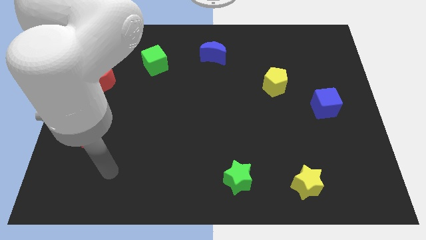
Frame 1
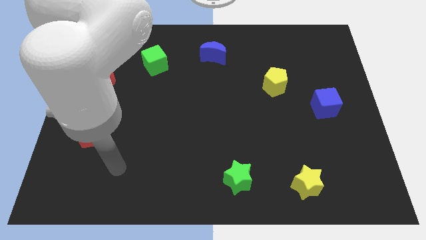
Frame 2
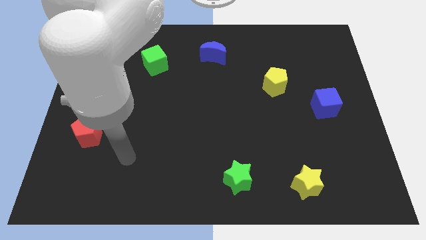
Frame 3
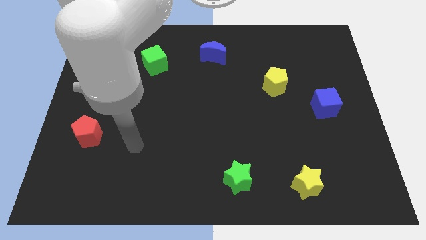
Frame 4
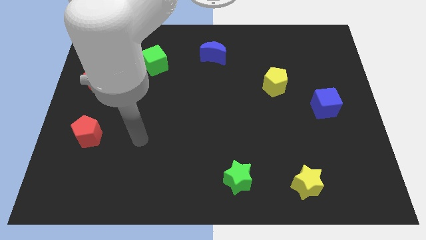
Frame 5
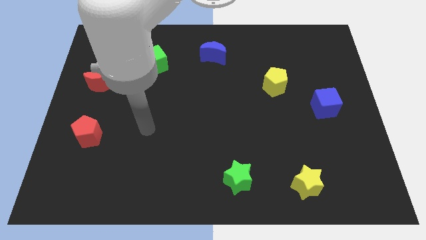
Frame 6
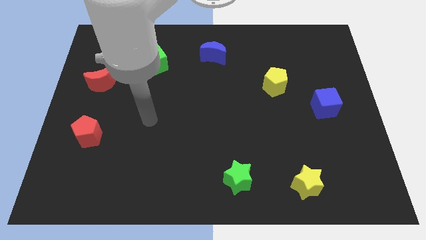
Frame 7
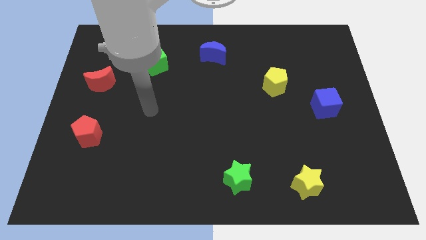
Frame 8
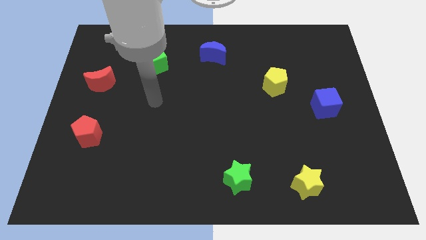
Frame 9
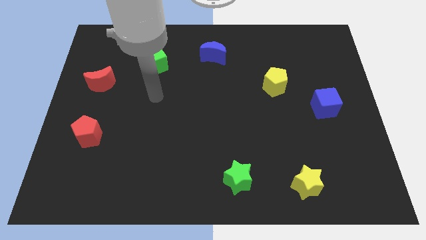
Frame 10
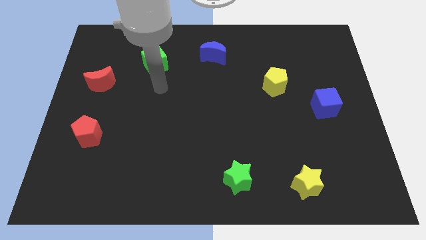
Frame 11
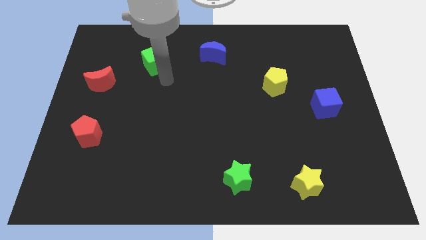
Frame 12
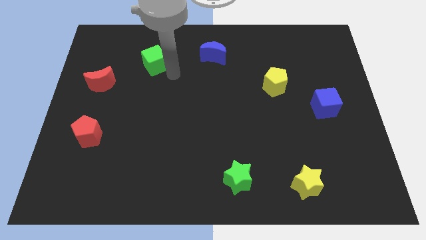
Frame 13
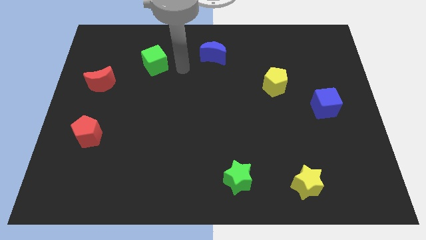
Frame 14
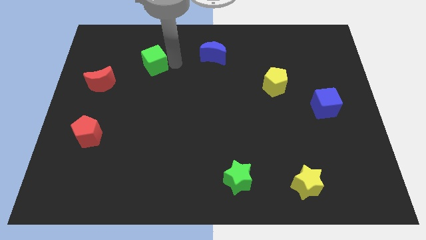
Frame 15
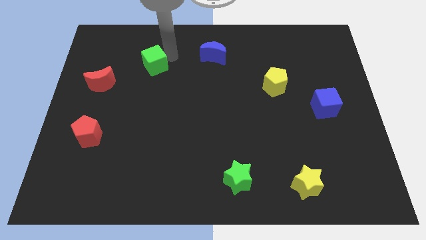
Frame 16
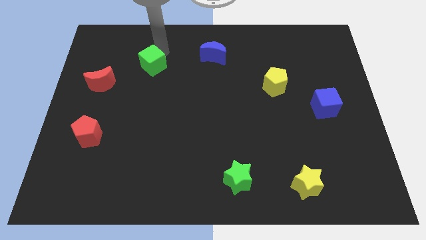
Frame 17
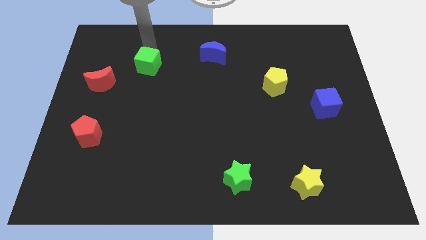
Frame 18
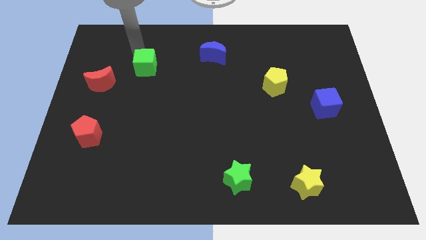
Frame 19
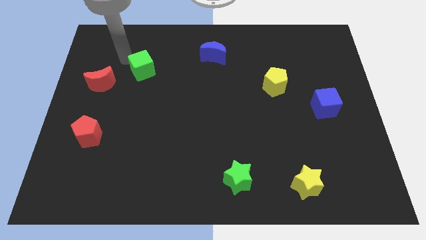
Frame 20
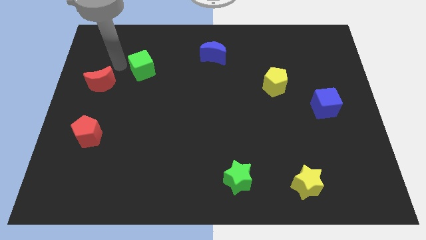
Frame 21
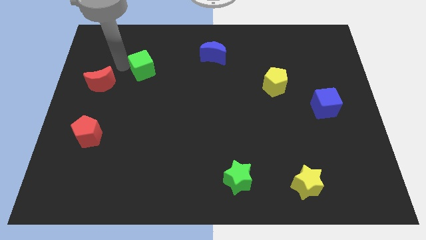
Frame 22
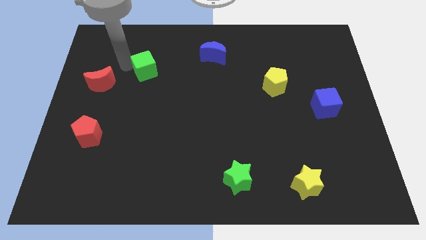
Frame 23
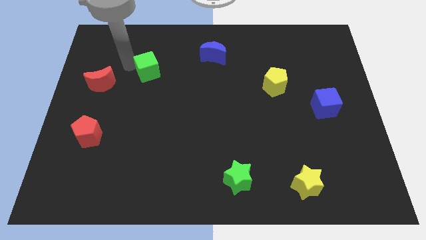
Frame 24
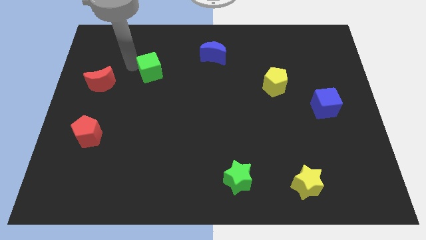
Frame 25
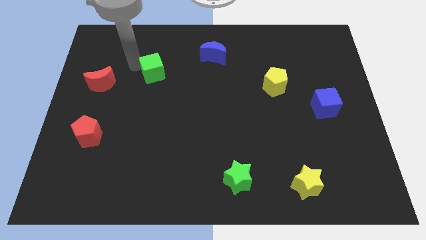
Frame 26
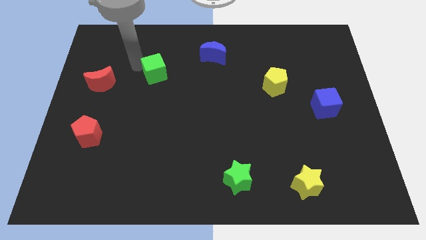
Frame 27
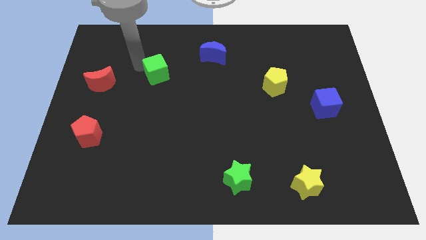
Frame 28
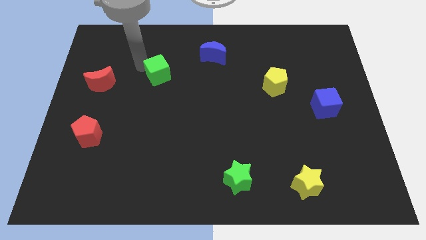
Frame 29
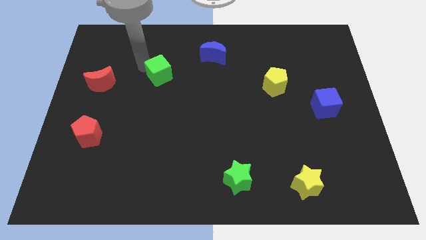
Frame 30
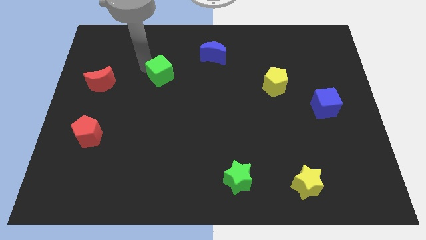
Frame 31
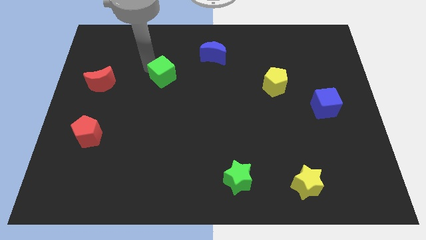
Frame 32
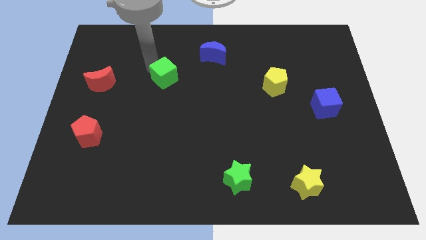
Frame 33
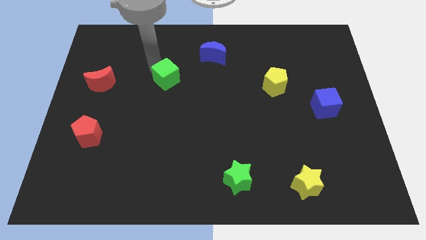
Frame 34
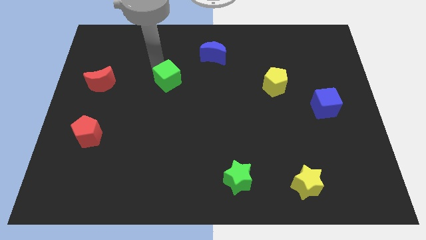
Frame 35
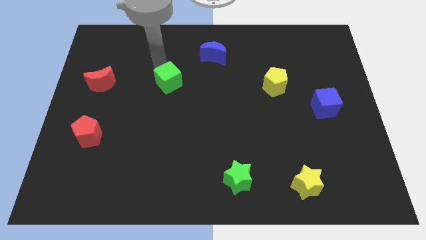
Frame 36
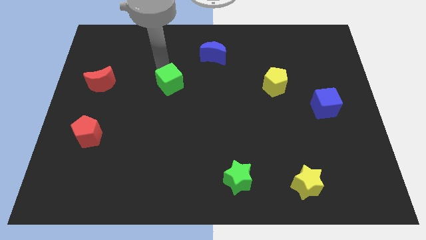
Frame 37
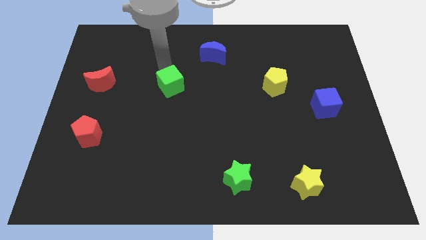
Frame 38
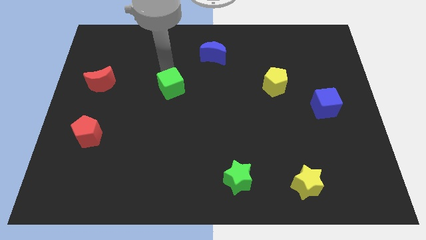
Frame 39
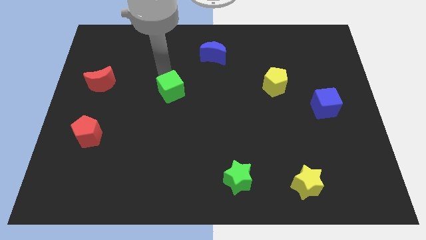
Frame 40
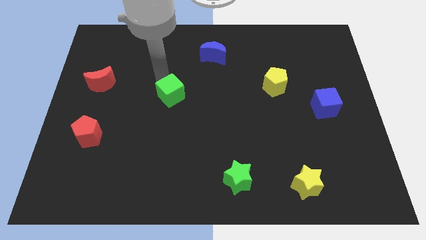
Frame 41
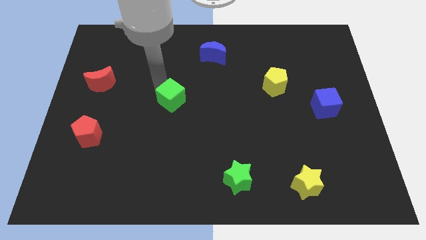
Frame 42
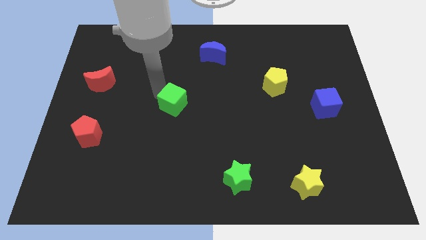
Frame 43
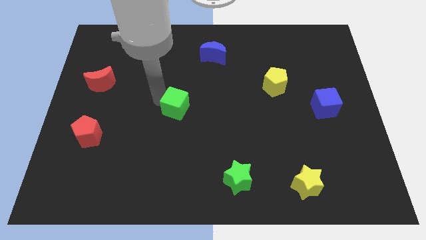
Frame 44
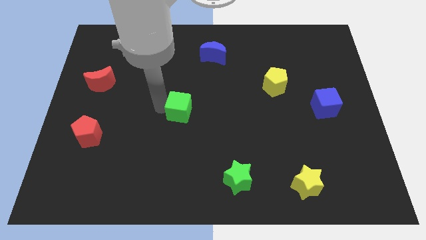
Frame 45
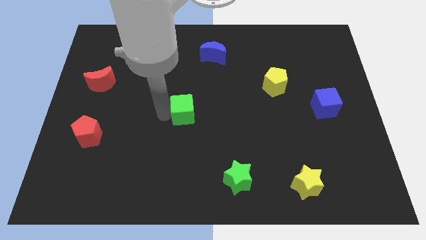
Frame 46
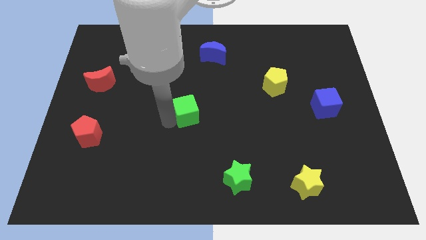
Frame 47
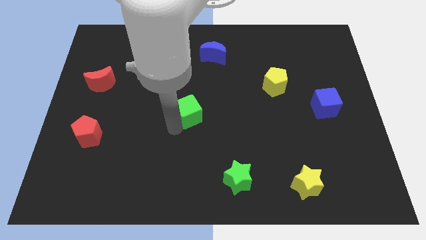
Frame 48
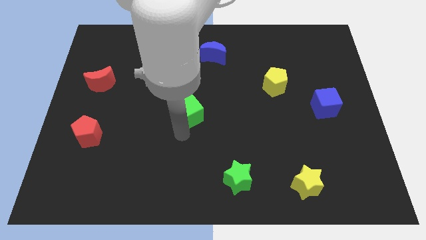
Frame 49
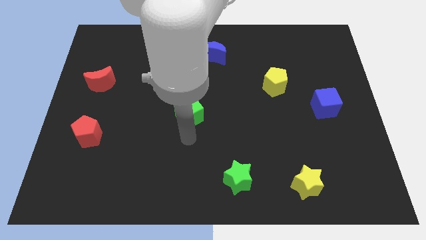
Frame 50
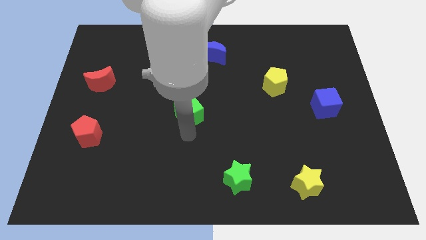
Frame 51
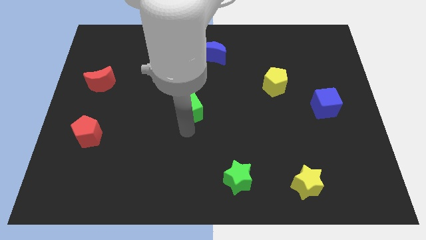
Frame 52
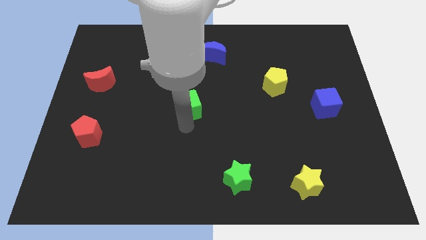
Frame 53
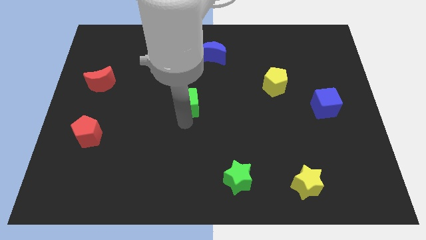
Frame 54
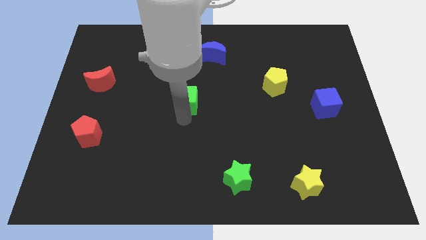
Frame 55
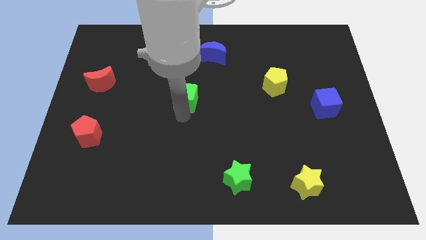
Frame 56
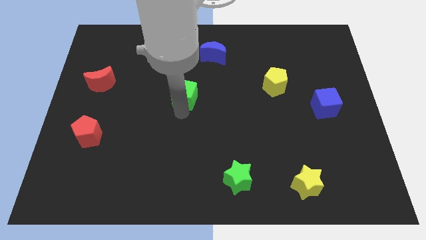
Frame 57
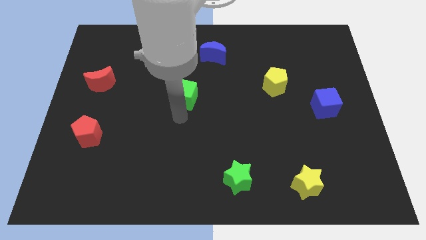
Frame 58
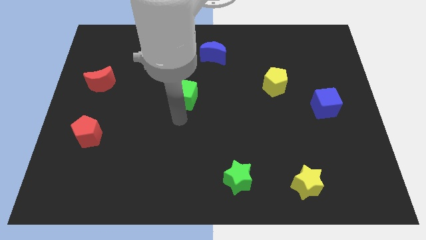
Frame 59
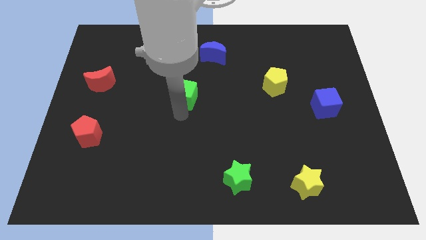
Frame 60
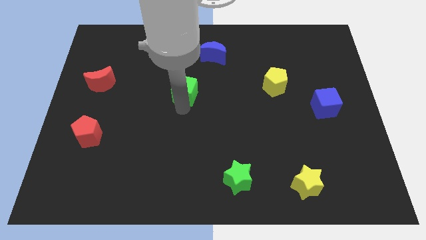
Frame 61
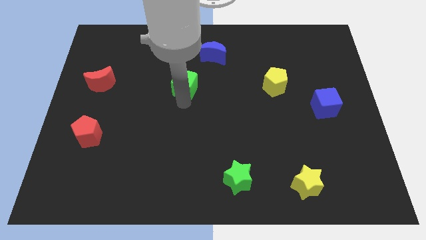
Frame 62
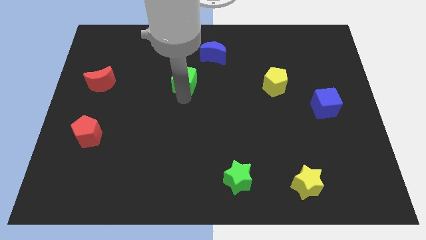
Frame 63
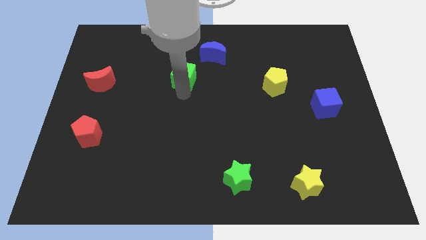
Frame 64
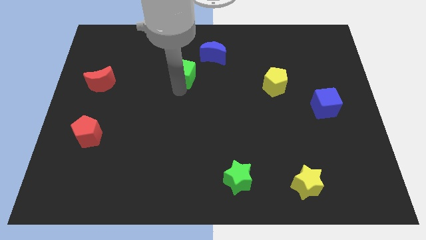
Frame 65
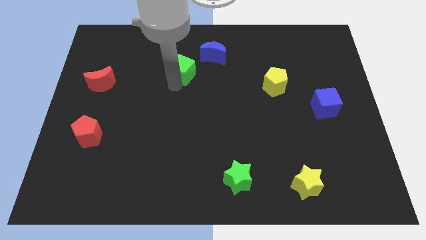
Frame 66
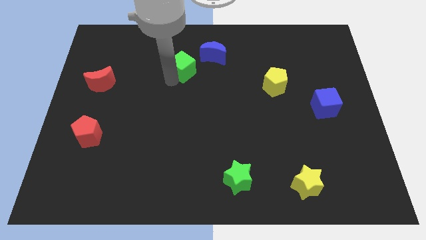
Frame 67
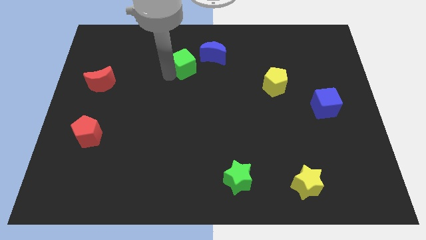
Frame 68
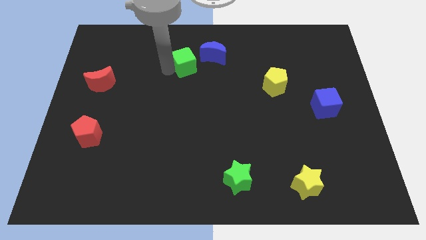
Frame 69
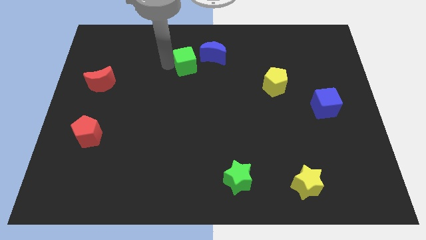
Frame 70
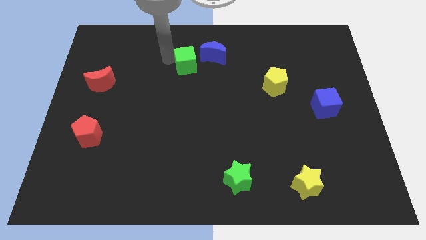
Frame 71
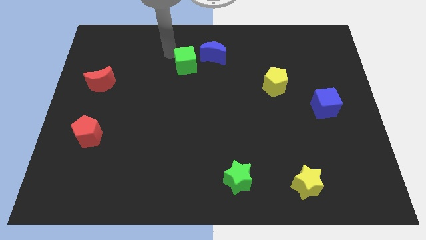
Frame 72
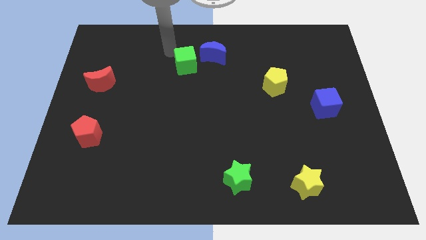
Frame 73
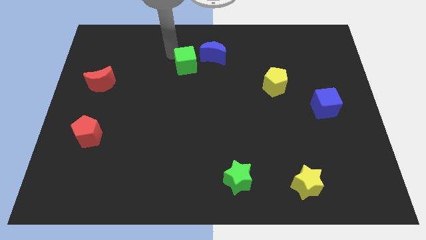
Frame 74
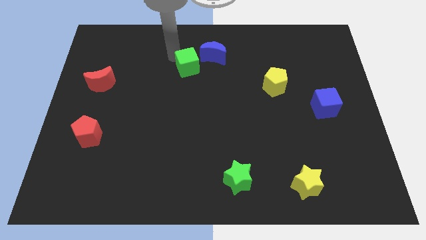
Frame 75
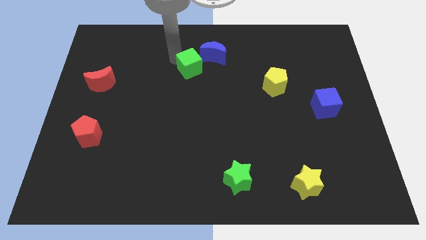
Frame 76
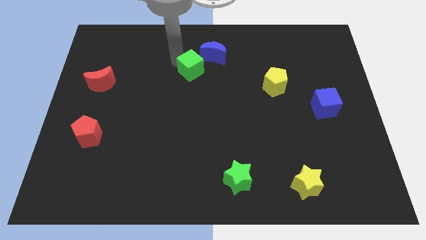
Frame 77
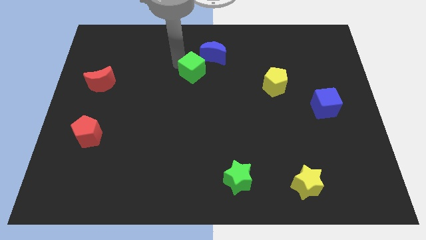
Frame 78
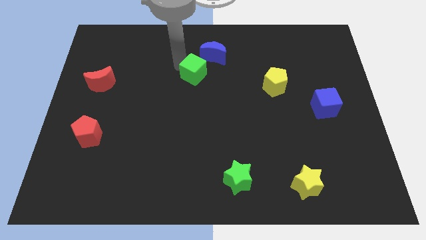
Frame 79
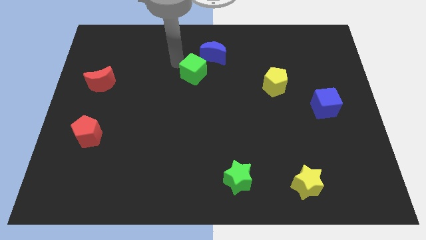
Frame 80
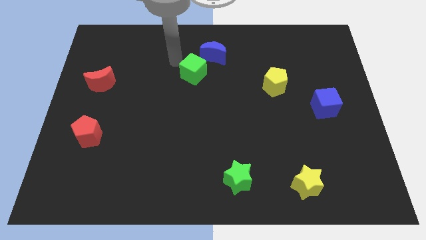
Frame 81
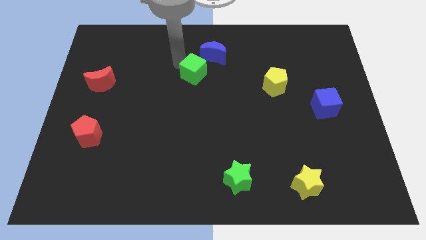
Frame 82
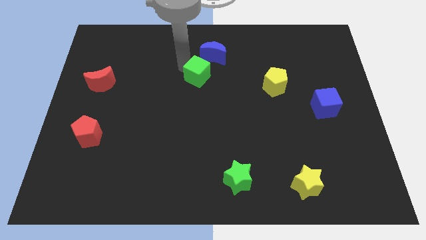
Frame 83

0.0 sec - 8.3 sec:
put the green cube below the blue moon
